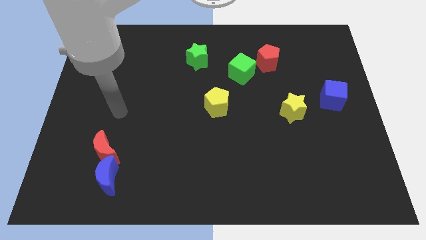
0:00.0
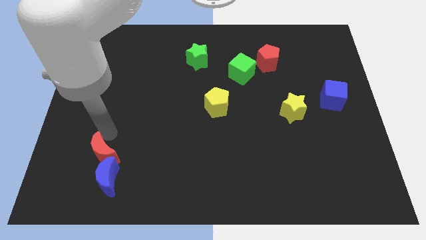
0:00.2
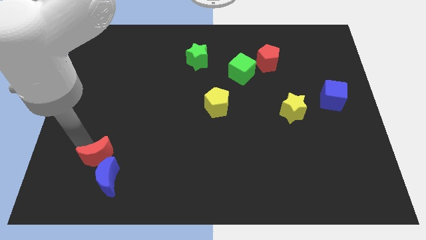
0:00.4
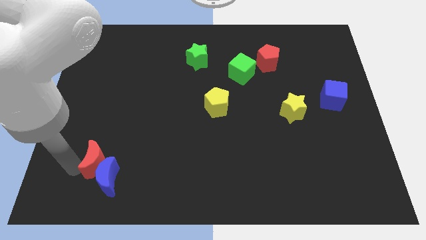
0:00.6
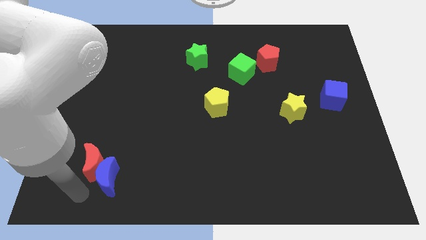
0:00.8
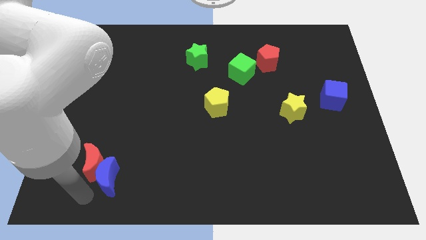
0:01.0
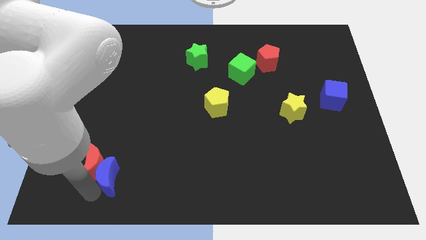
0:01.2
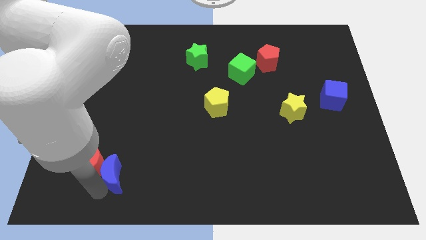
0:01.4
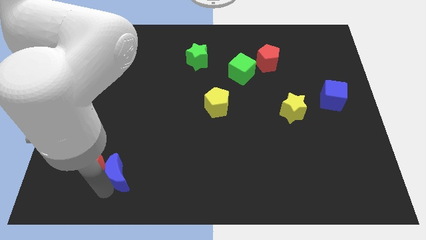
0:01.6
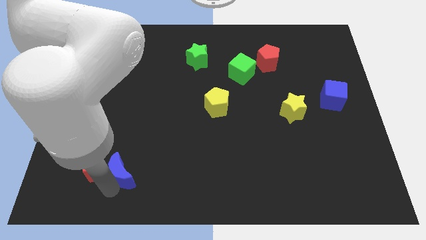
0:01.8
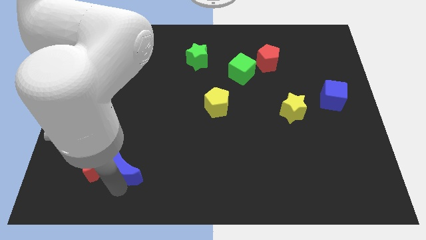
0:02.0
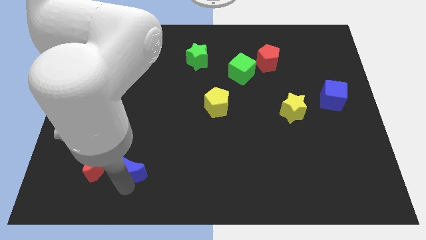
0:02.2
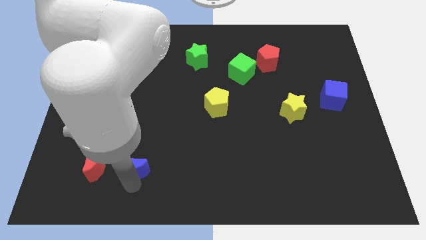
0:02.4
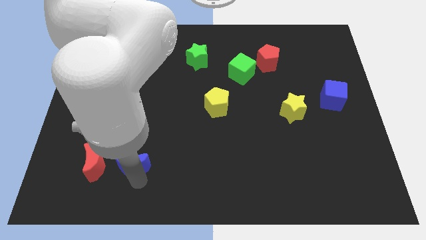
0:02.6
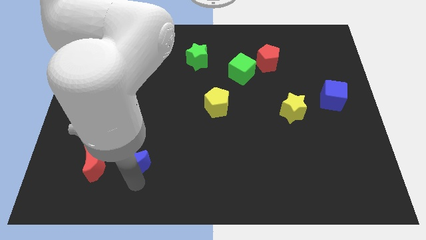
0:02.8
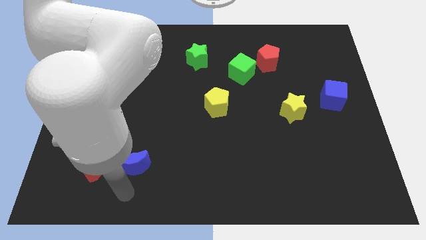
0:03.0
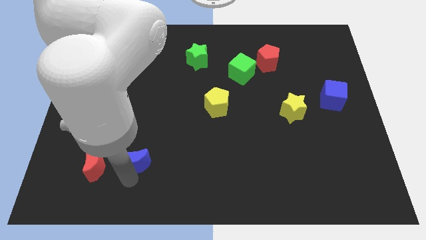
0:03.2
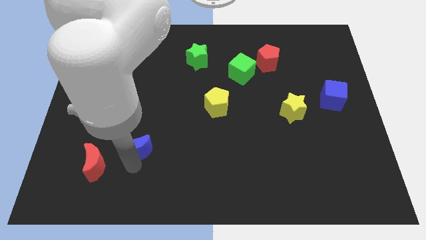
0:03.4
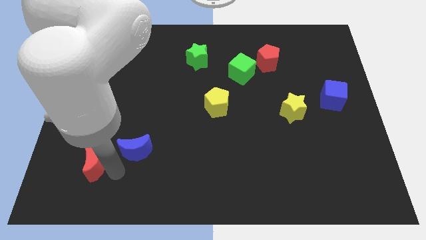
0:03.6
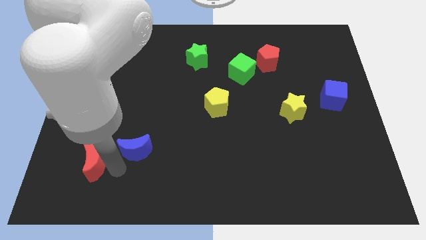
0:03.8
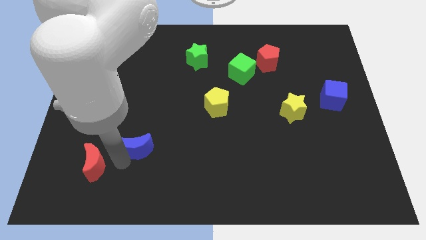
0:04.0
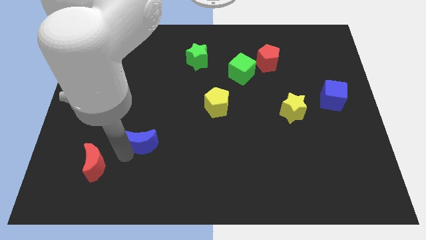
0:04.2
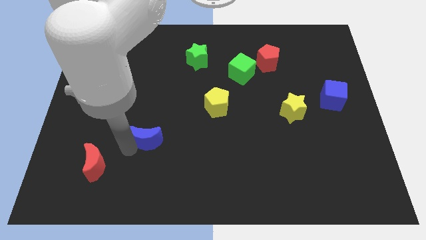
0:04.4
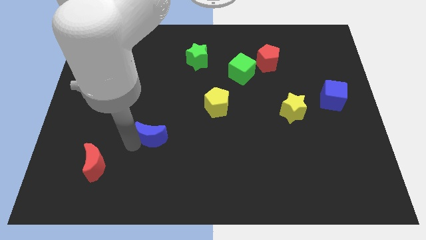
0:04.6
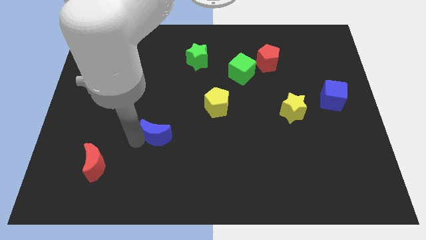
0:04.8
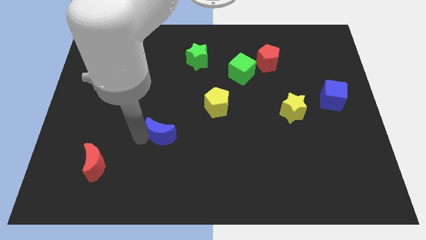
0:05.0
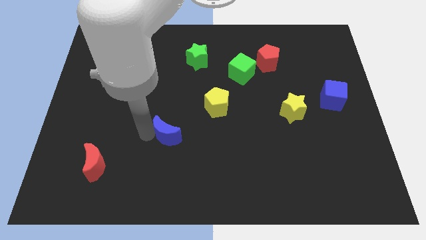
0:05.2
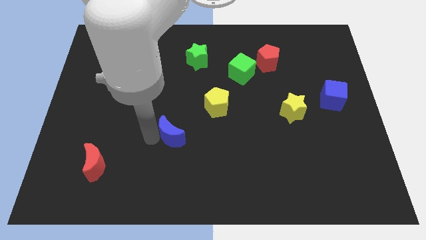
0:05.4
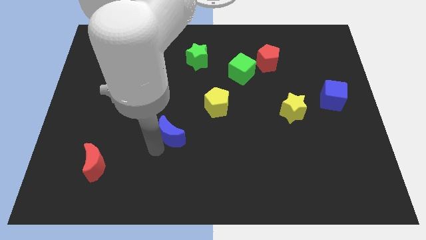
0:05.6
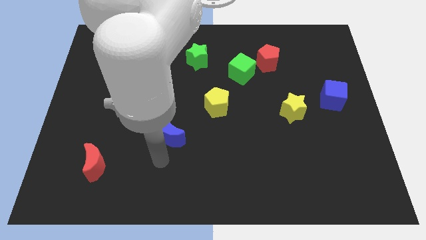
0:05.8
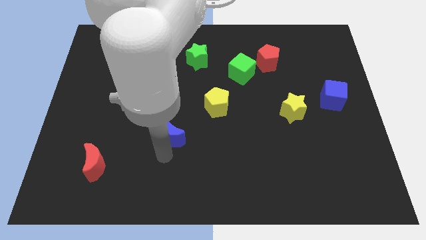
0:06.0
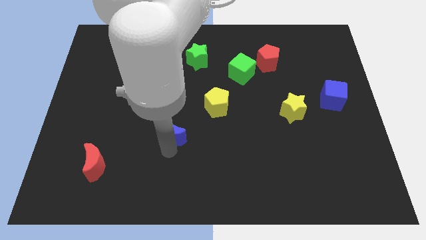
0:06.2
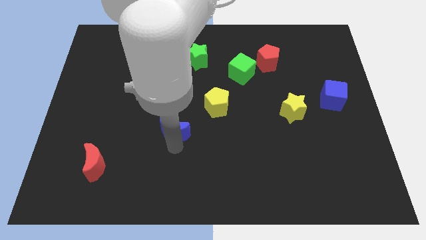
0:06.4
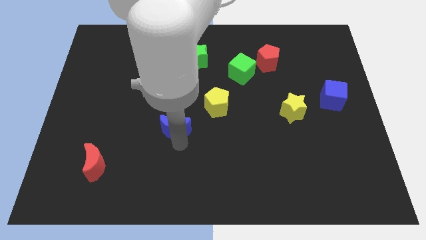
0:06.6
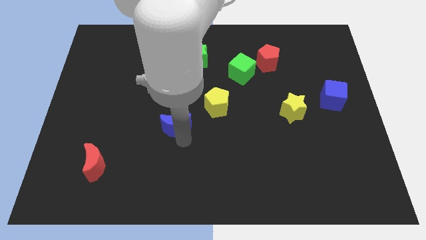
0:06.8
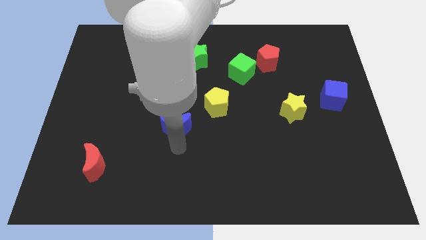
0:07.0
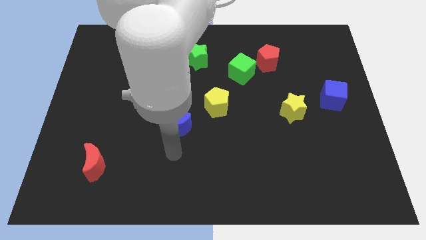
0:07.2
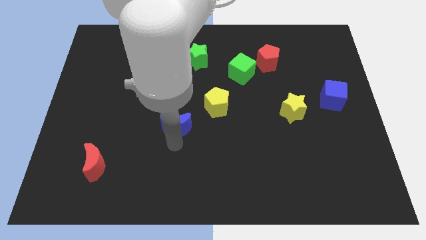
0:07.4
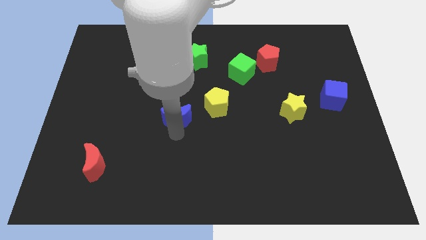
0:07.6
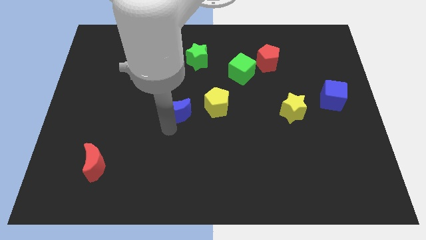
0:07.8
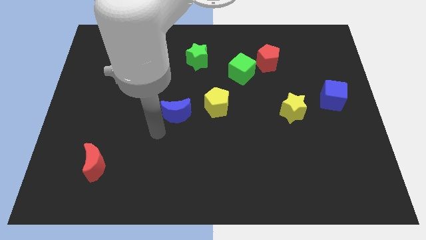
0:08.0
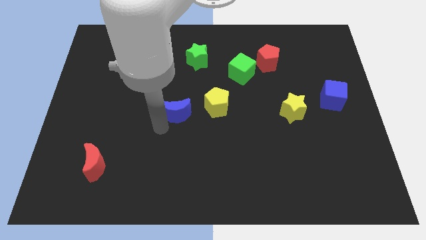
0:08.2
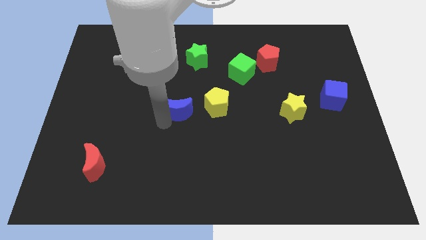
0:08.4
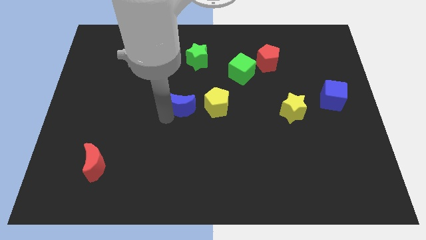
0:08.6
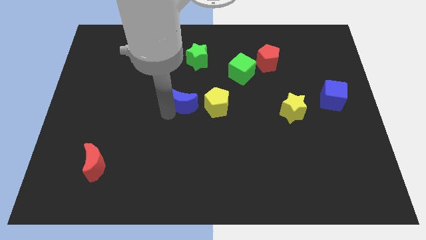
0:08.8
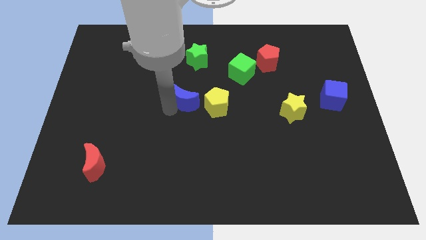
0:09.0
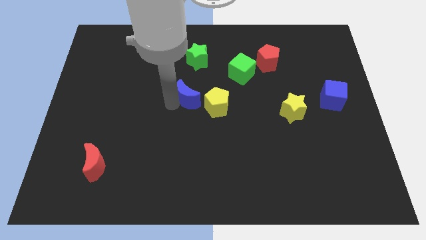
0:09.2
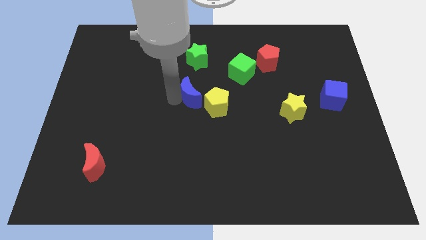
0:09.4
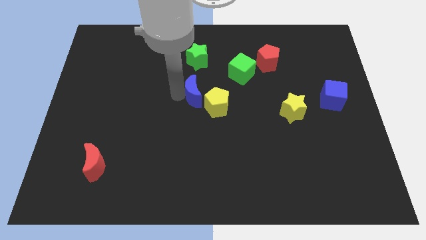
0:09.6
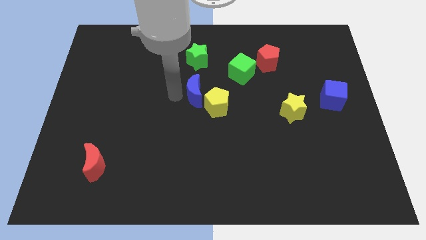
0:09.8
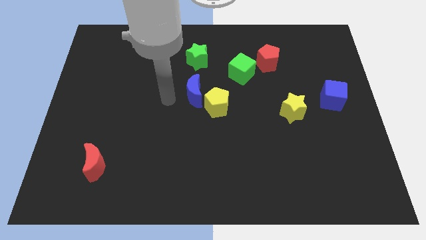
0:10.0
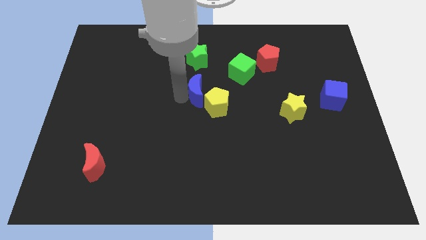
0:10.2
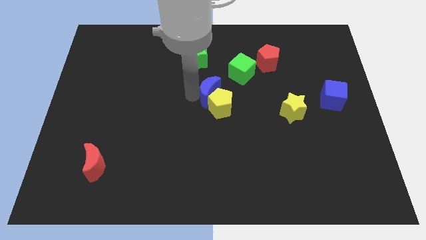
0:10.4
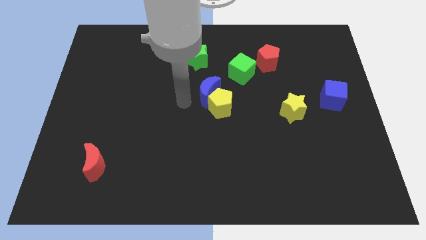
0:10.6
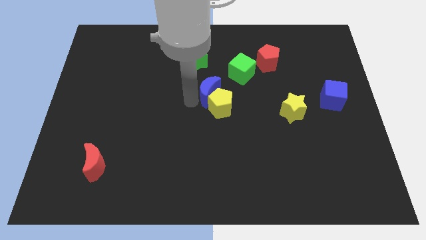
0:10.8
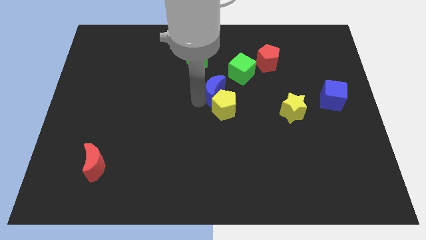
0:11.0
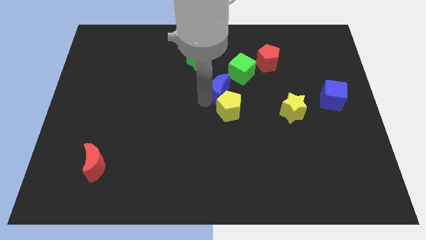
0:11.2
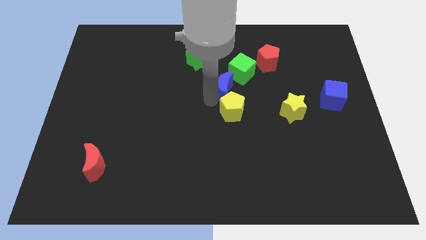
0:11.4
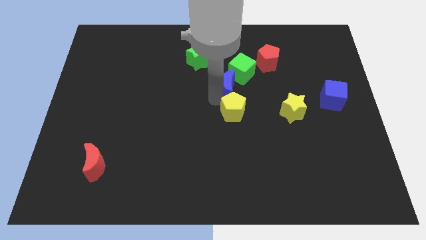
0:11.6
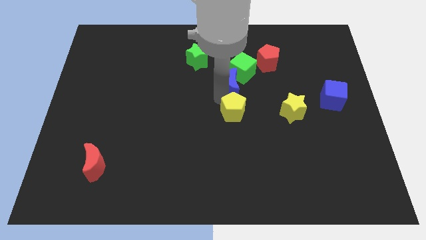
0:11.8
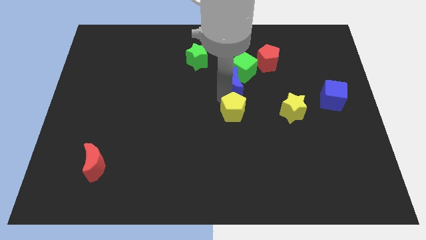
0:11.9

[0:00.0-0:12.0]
move the blue moon to the bottom left side of the red pentagon

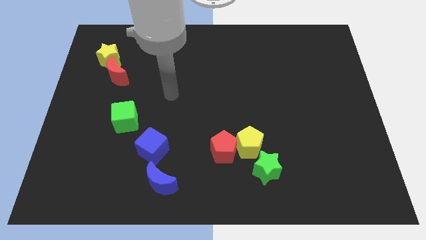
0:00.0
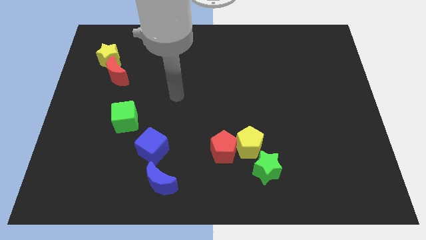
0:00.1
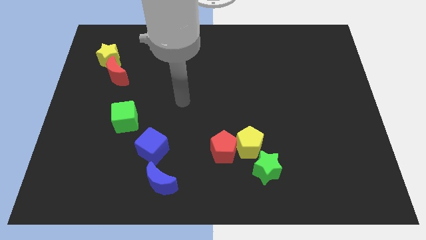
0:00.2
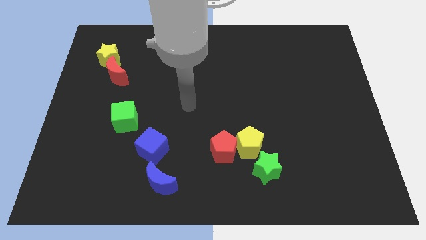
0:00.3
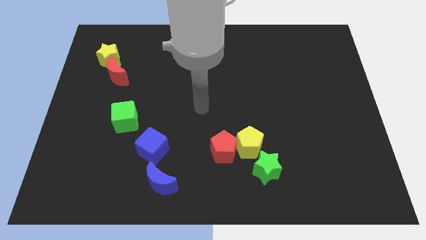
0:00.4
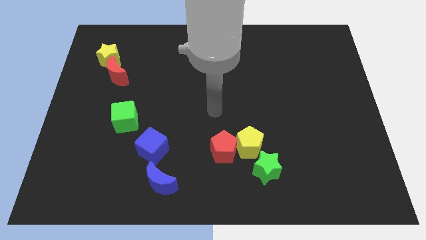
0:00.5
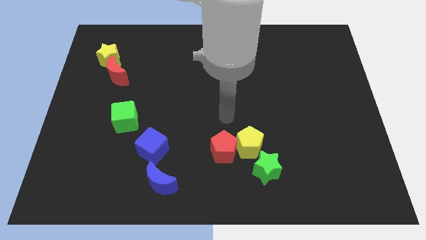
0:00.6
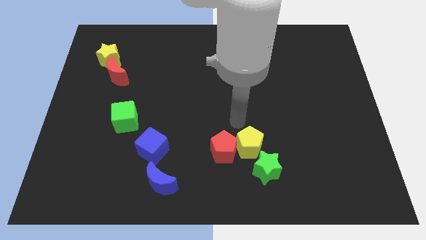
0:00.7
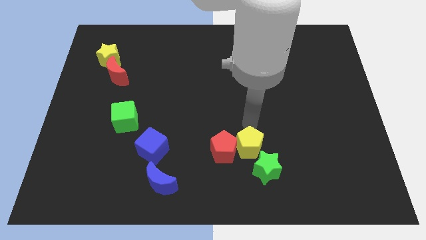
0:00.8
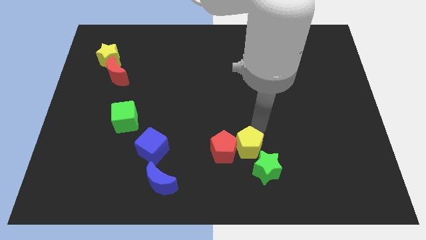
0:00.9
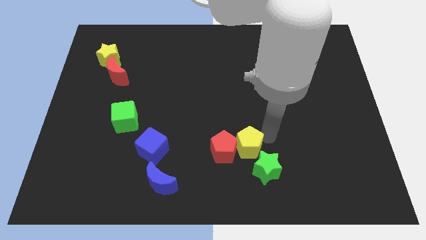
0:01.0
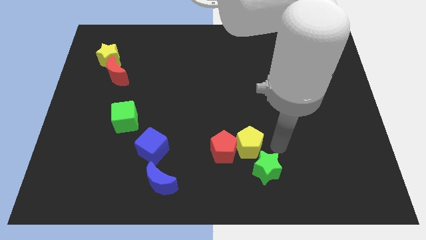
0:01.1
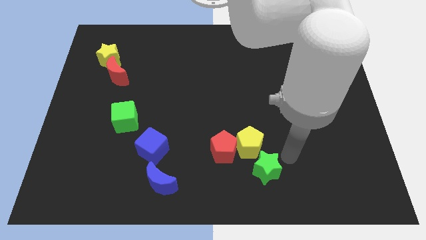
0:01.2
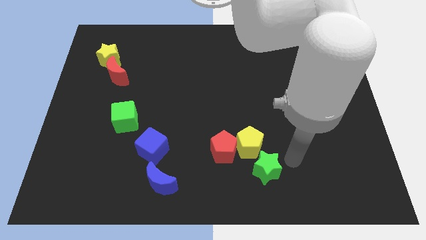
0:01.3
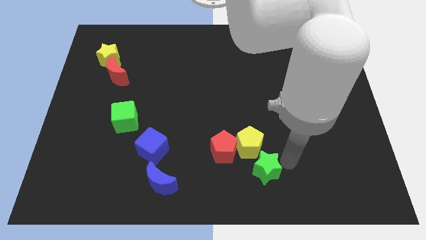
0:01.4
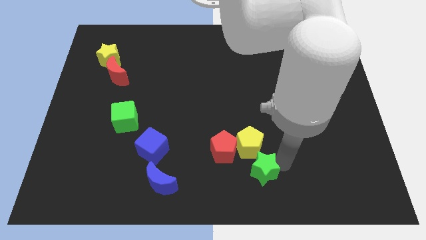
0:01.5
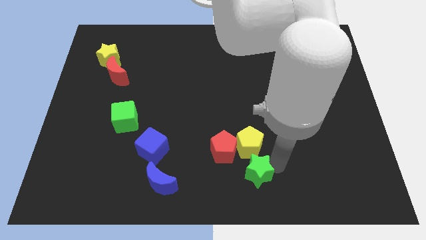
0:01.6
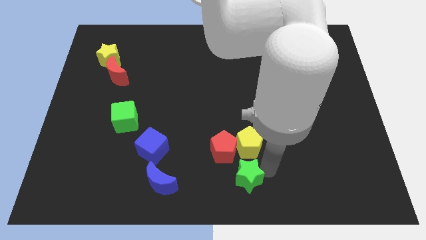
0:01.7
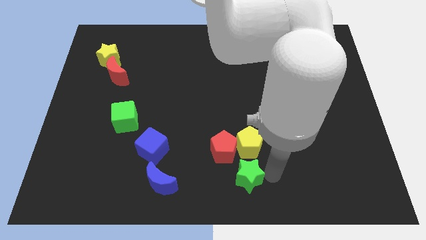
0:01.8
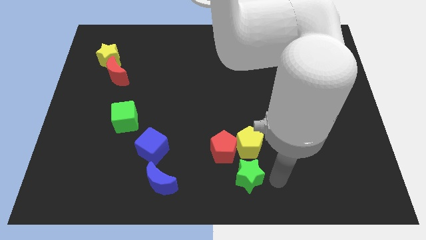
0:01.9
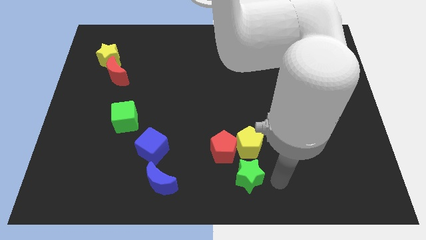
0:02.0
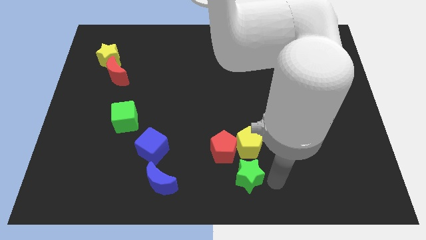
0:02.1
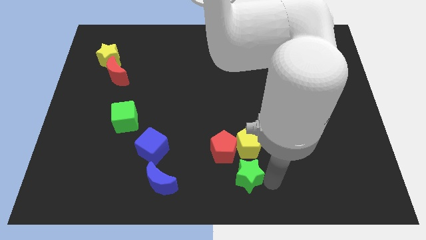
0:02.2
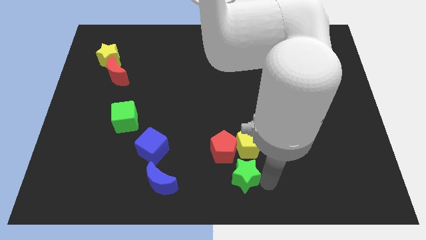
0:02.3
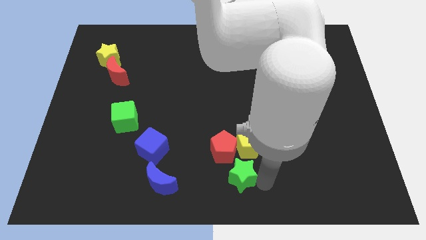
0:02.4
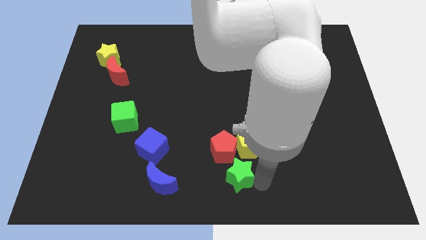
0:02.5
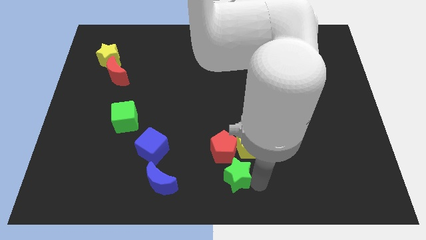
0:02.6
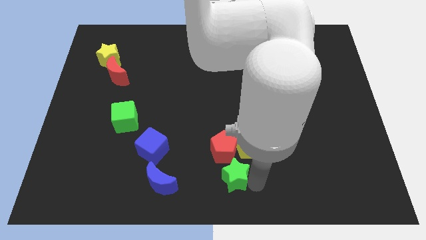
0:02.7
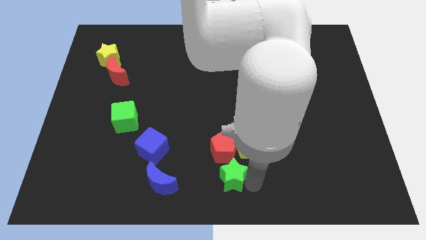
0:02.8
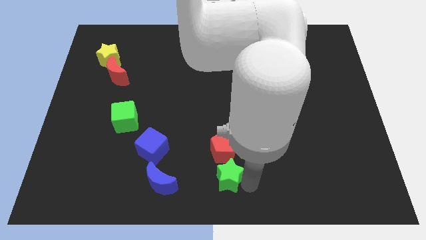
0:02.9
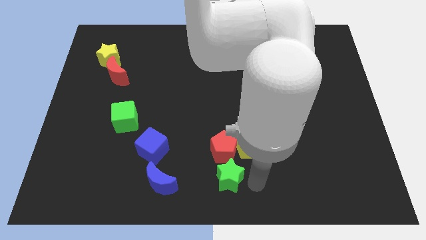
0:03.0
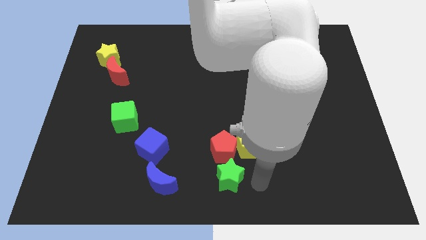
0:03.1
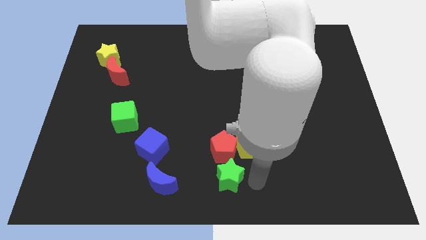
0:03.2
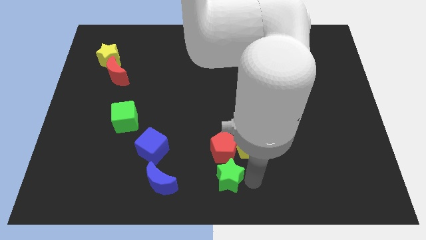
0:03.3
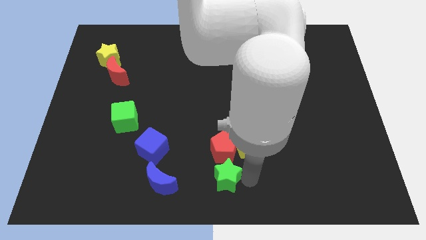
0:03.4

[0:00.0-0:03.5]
move the green star to the bottom left of the red pentagon
